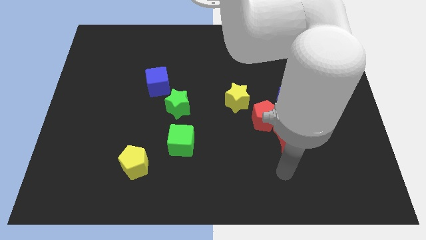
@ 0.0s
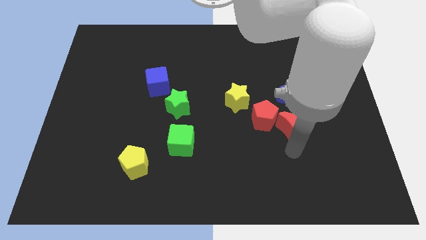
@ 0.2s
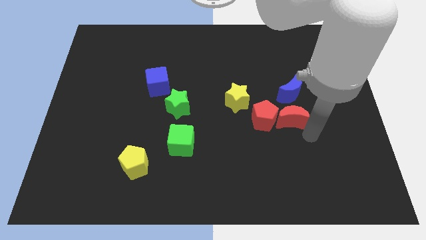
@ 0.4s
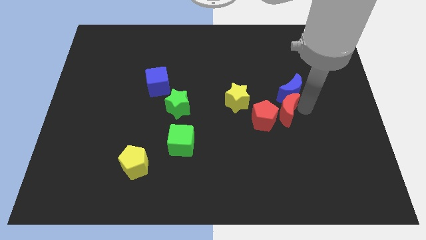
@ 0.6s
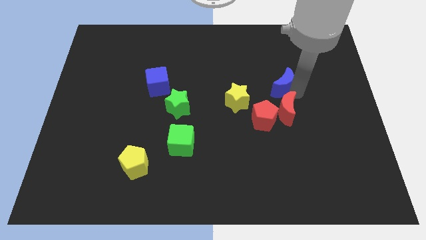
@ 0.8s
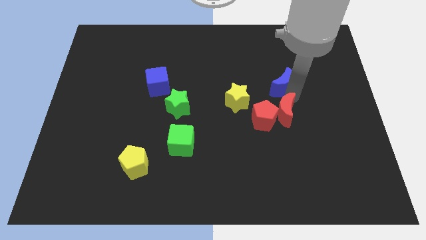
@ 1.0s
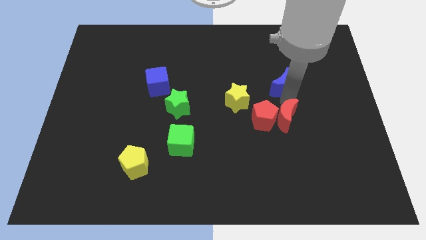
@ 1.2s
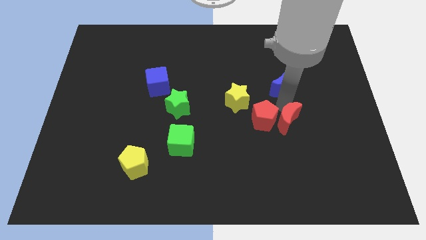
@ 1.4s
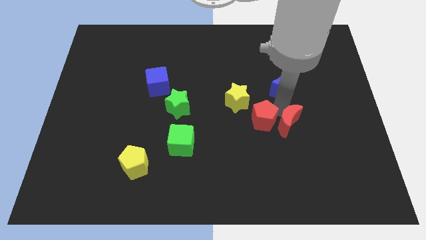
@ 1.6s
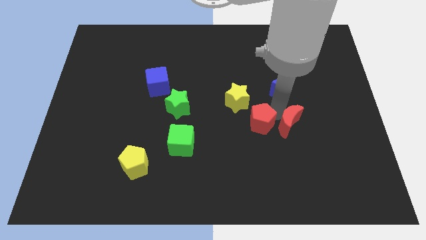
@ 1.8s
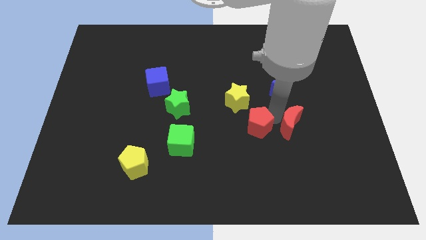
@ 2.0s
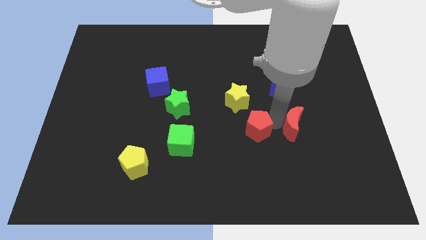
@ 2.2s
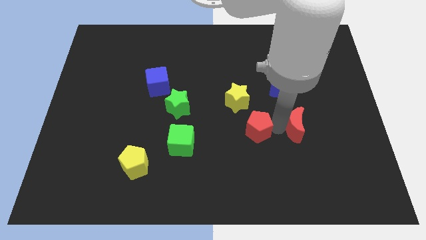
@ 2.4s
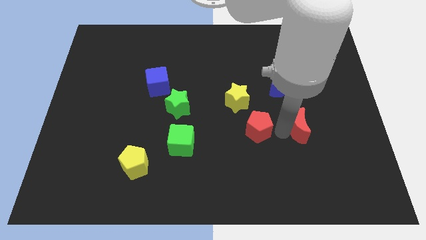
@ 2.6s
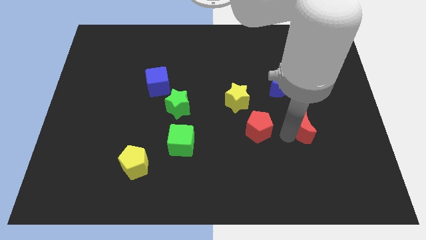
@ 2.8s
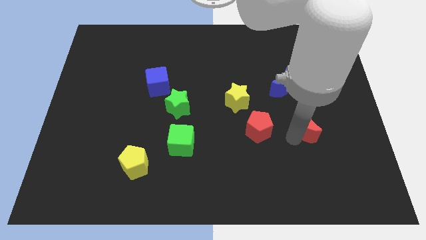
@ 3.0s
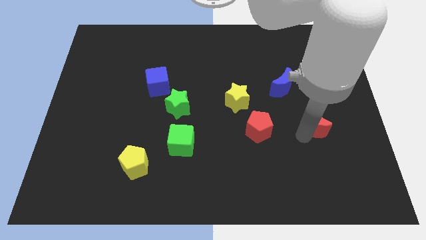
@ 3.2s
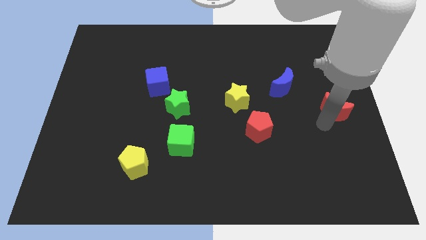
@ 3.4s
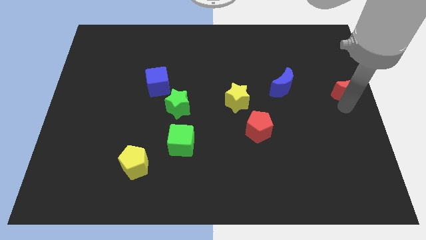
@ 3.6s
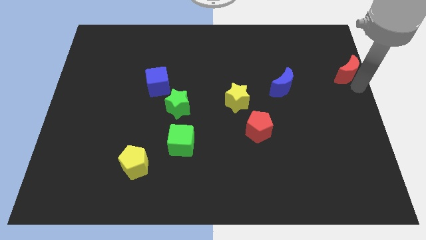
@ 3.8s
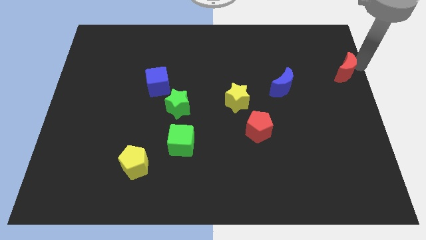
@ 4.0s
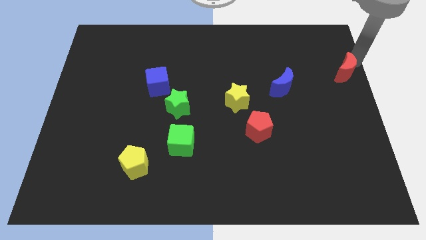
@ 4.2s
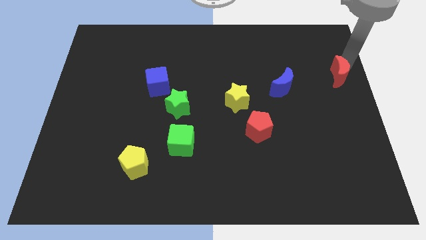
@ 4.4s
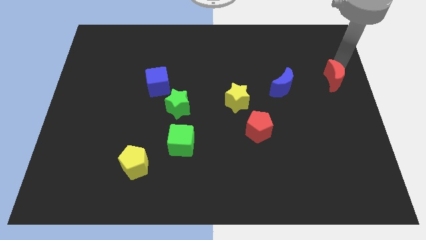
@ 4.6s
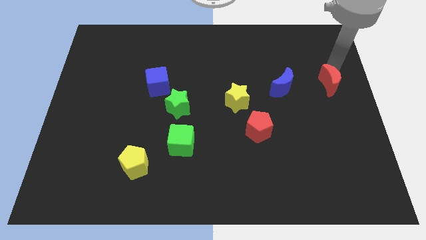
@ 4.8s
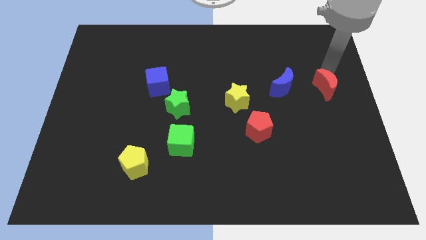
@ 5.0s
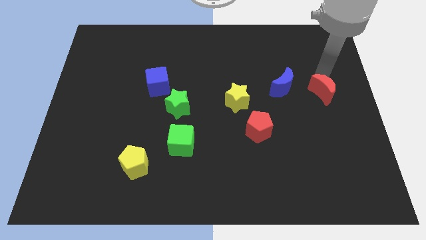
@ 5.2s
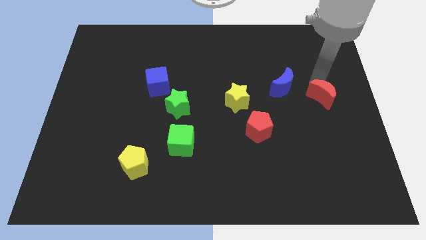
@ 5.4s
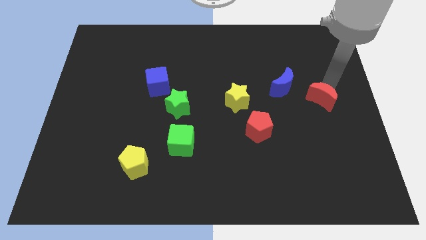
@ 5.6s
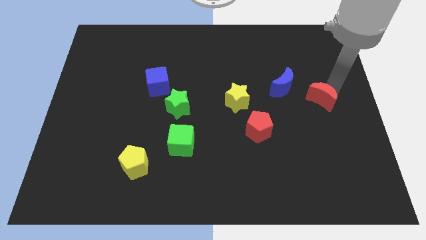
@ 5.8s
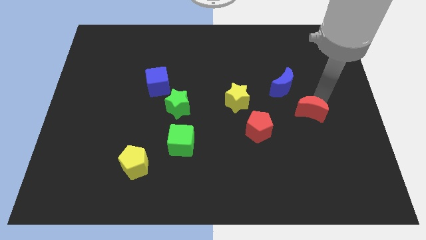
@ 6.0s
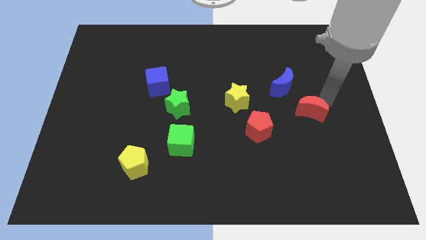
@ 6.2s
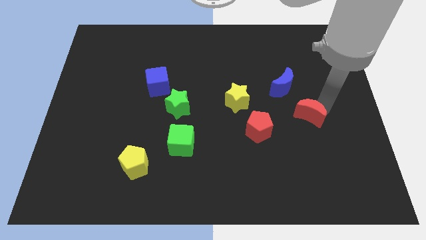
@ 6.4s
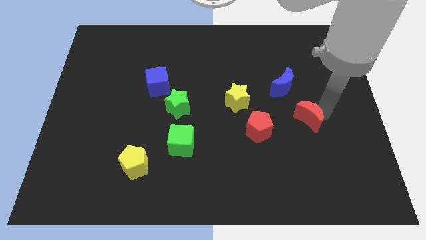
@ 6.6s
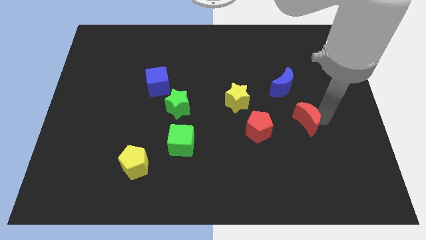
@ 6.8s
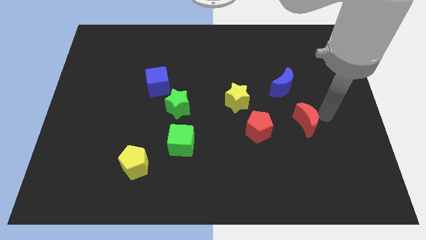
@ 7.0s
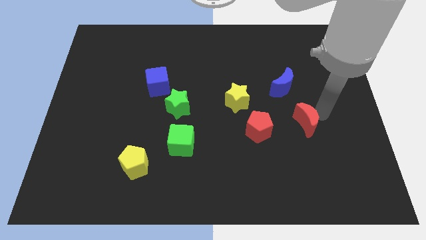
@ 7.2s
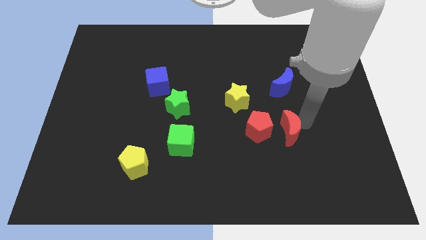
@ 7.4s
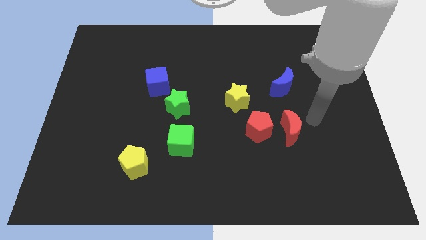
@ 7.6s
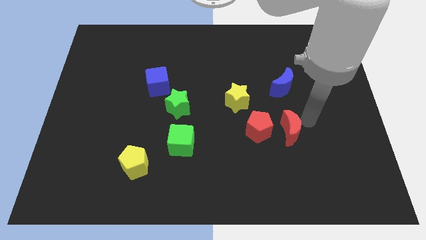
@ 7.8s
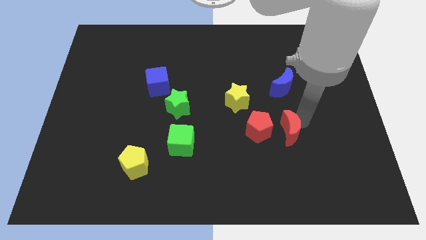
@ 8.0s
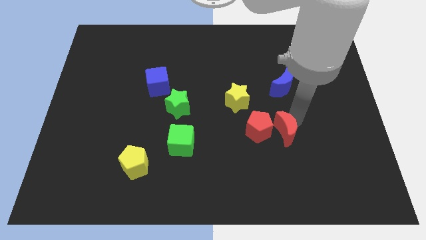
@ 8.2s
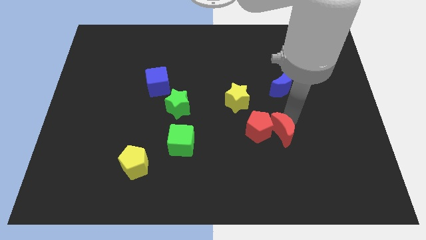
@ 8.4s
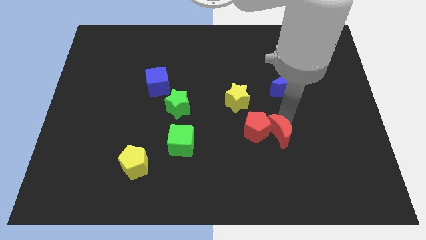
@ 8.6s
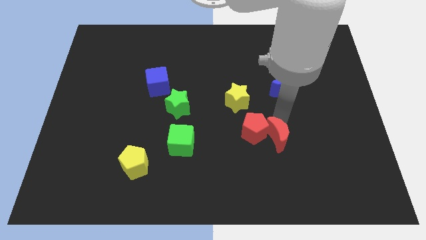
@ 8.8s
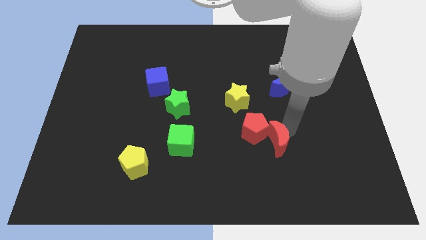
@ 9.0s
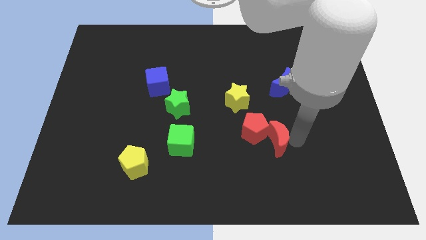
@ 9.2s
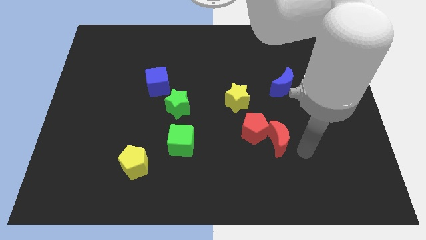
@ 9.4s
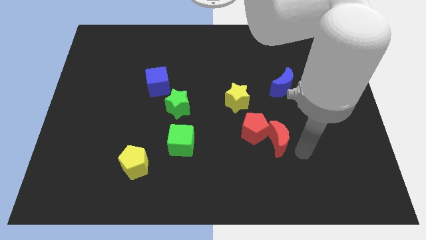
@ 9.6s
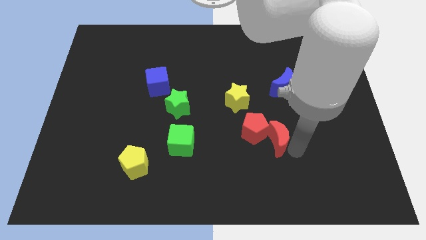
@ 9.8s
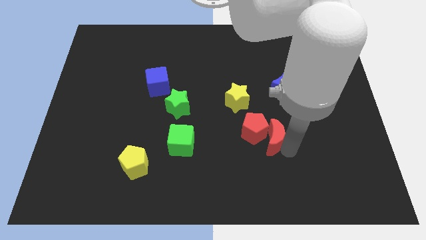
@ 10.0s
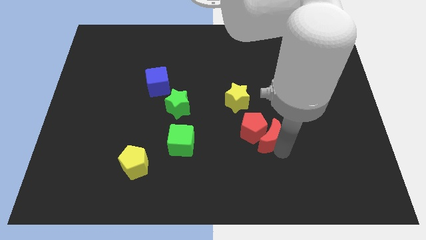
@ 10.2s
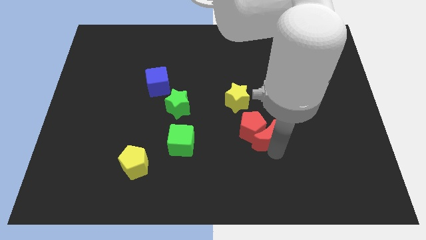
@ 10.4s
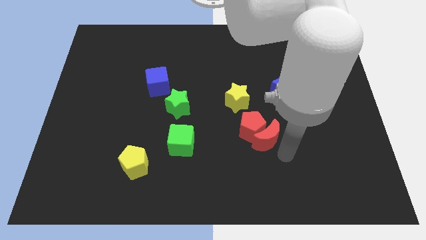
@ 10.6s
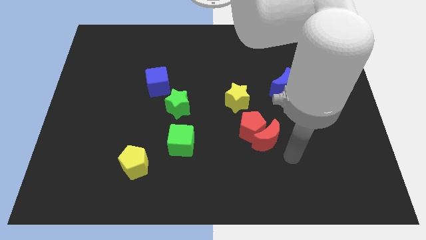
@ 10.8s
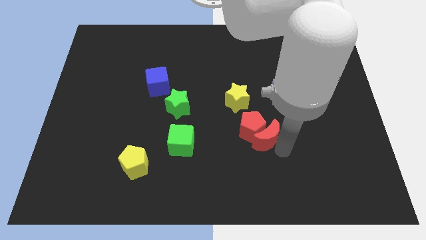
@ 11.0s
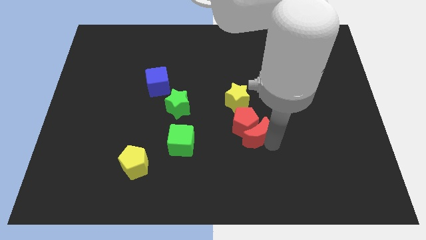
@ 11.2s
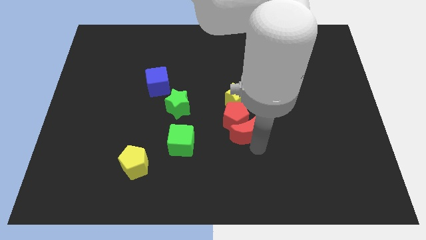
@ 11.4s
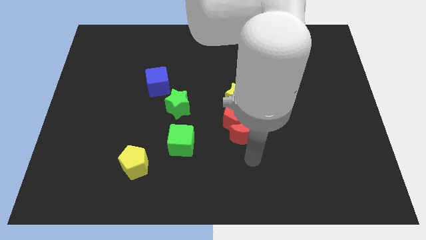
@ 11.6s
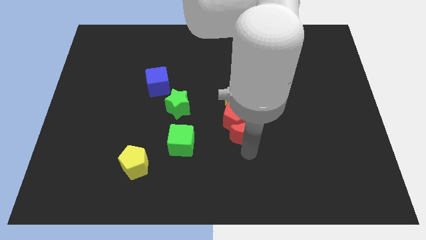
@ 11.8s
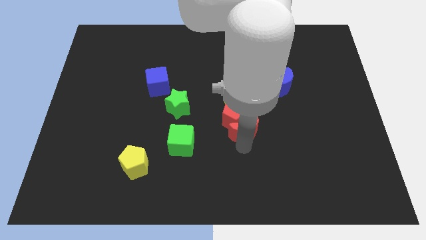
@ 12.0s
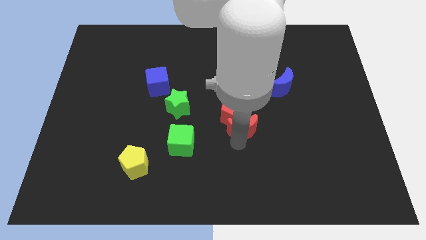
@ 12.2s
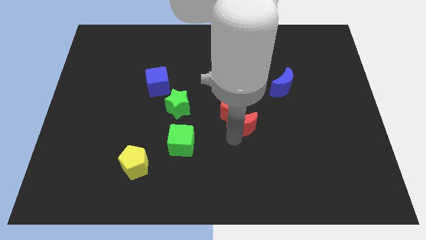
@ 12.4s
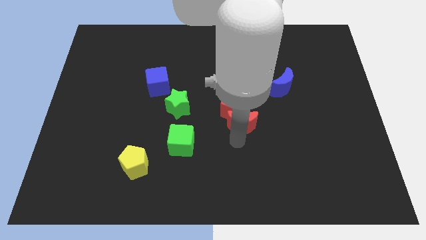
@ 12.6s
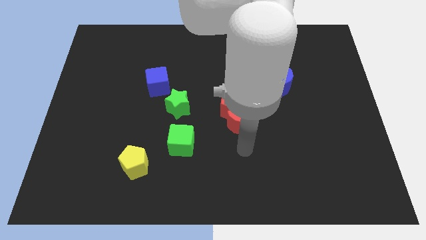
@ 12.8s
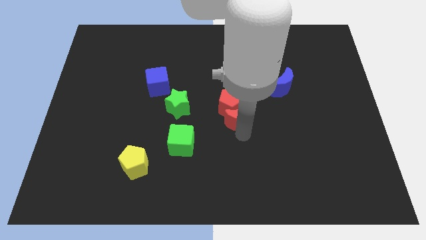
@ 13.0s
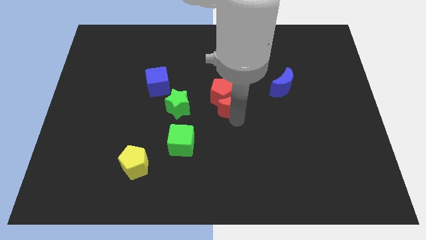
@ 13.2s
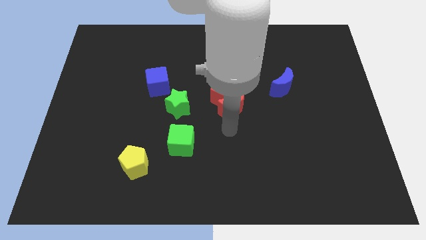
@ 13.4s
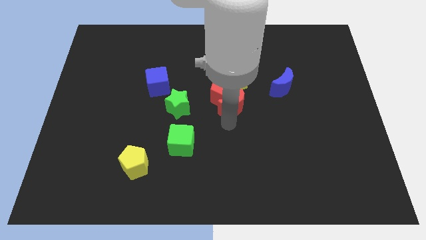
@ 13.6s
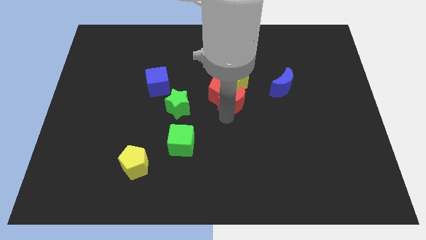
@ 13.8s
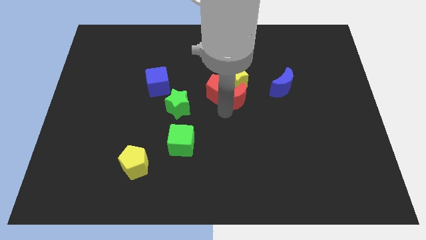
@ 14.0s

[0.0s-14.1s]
push the red moon next to the yellow star
